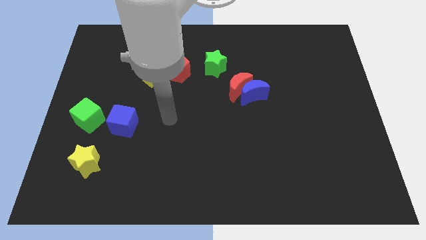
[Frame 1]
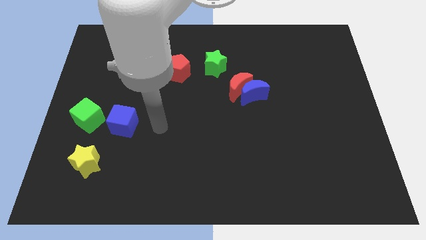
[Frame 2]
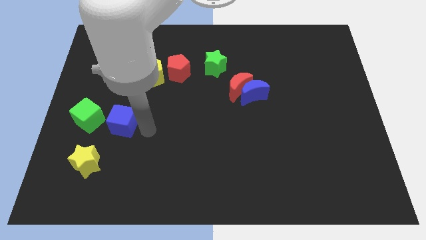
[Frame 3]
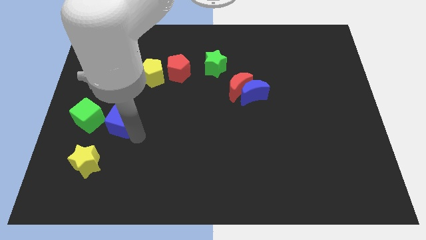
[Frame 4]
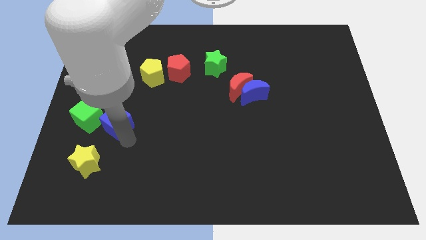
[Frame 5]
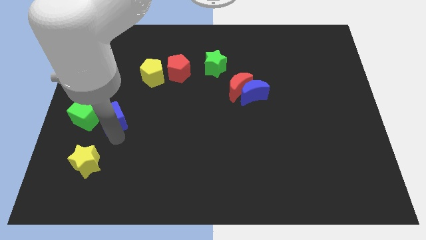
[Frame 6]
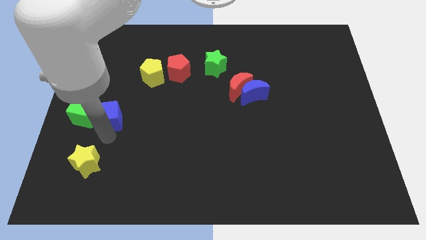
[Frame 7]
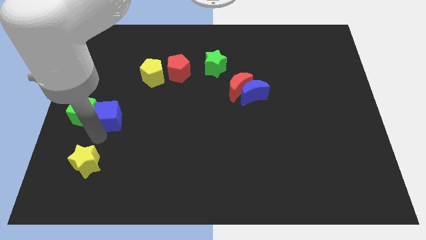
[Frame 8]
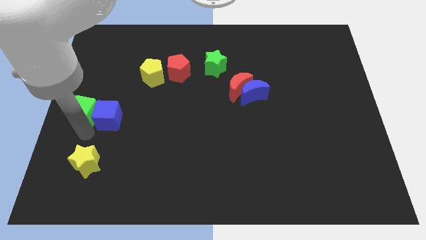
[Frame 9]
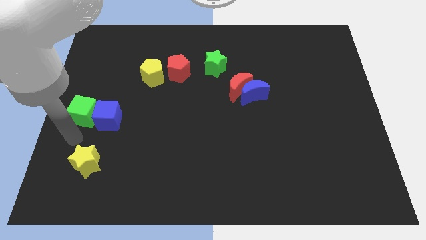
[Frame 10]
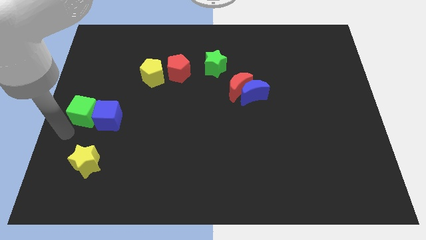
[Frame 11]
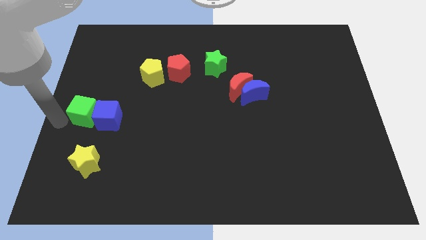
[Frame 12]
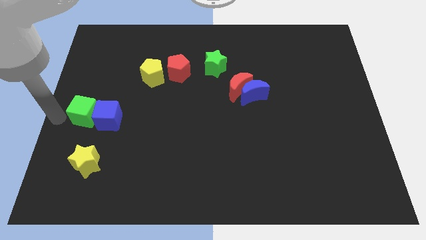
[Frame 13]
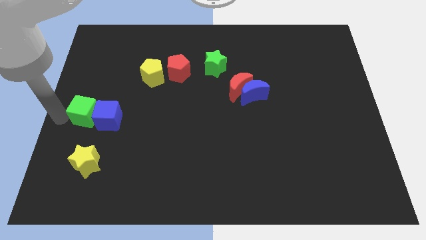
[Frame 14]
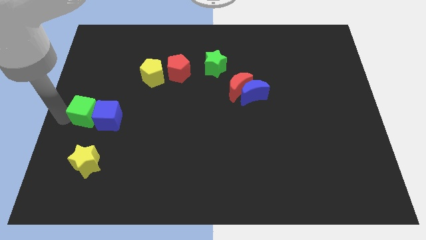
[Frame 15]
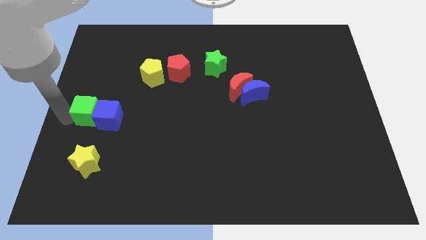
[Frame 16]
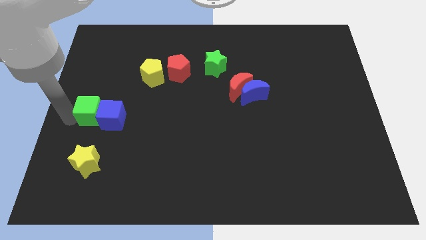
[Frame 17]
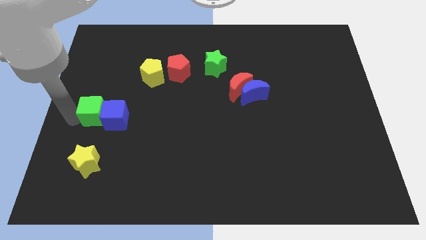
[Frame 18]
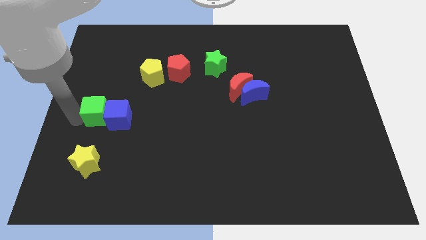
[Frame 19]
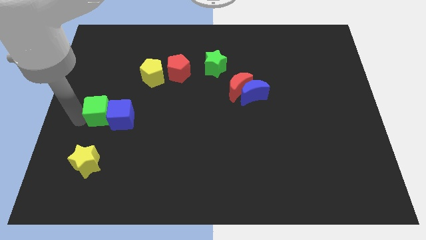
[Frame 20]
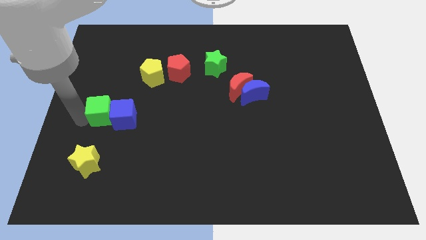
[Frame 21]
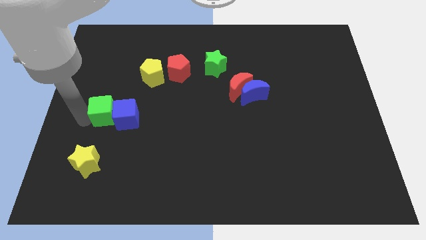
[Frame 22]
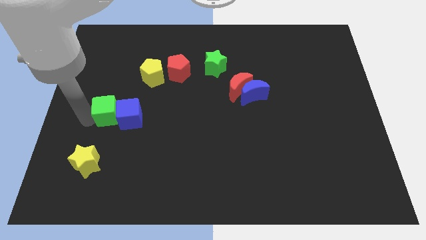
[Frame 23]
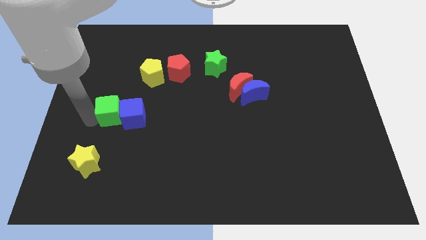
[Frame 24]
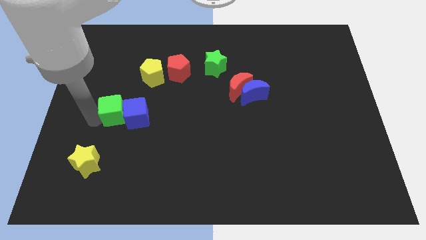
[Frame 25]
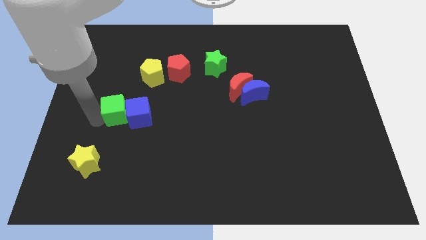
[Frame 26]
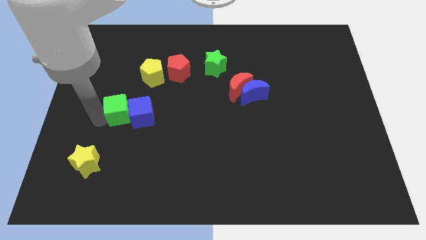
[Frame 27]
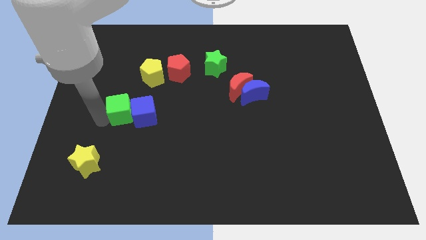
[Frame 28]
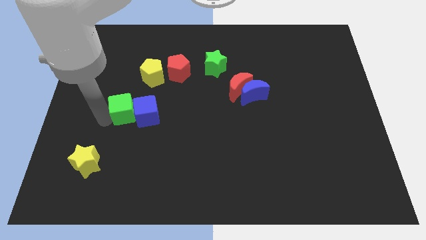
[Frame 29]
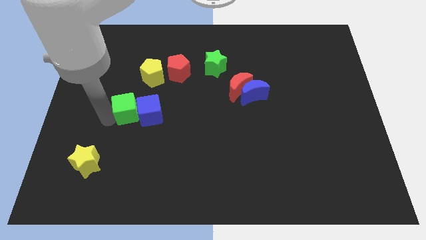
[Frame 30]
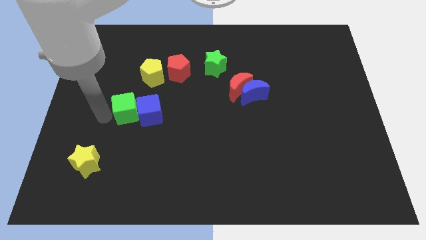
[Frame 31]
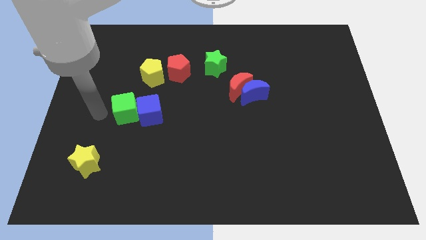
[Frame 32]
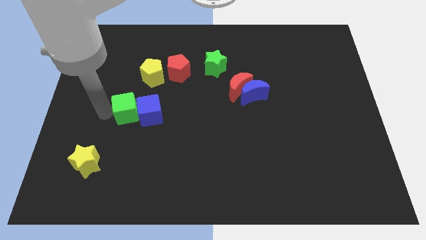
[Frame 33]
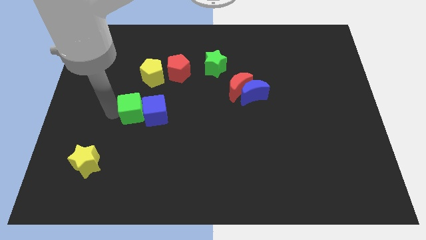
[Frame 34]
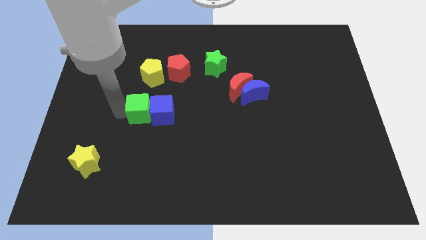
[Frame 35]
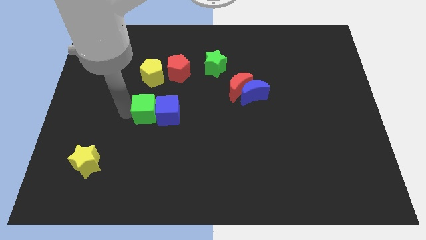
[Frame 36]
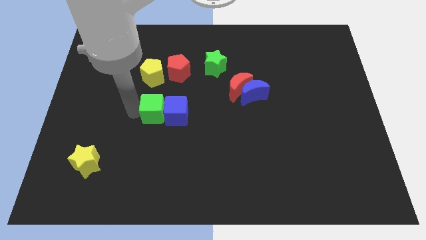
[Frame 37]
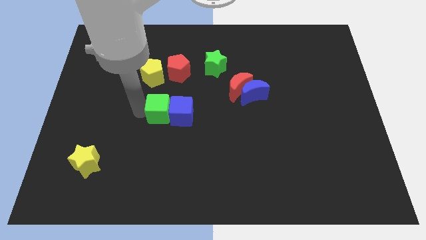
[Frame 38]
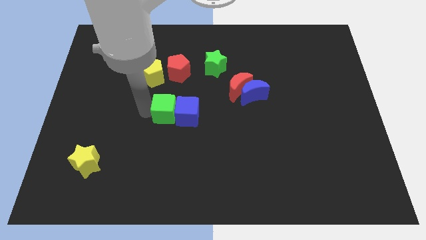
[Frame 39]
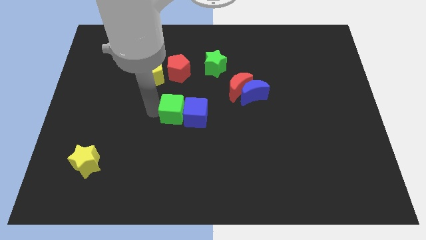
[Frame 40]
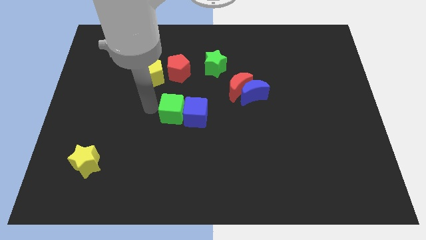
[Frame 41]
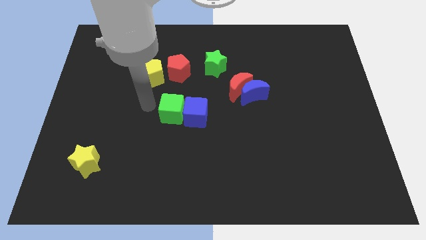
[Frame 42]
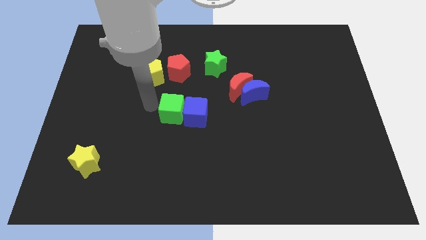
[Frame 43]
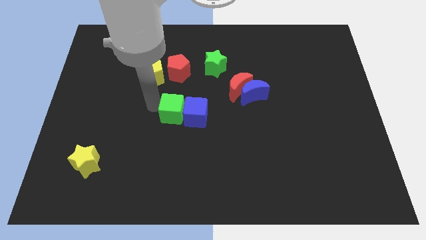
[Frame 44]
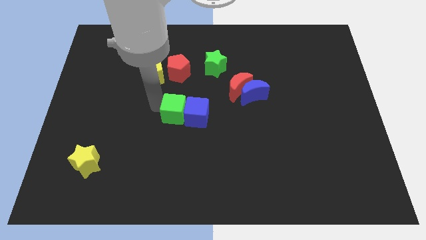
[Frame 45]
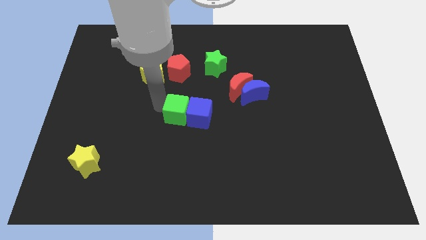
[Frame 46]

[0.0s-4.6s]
slide the green cube to the right

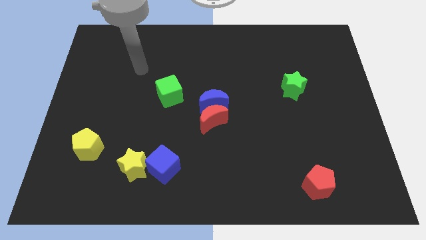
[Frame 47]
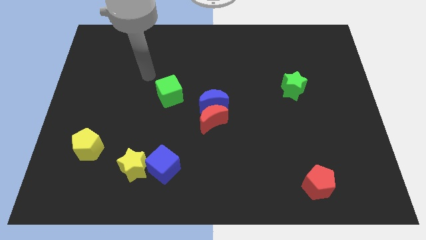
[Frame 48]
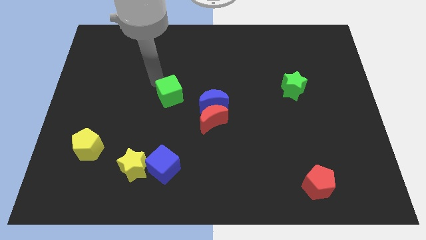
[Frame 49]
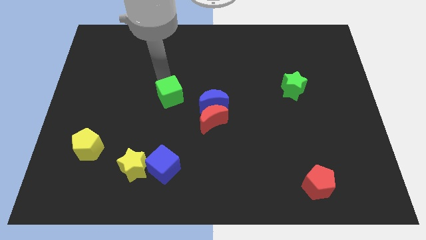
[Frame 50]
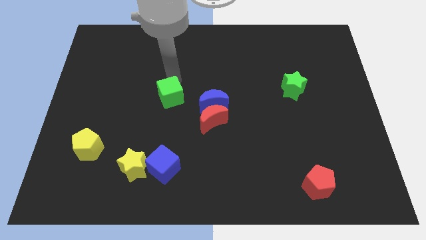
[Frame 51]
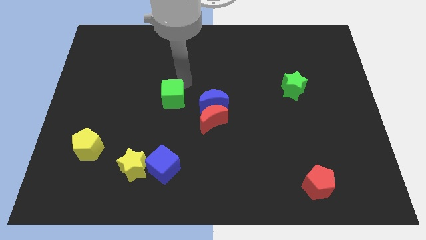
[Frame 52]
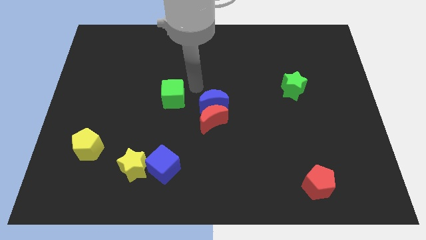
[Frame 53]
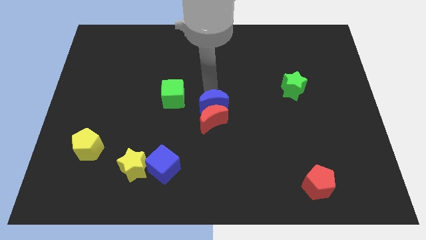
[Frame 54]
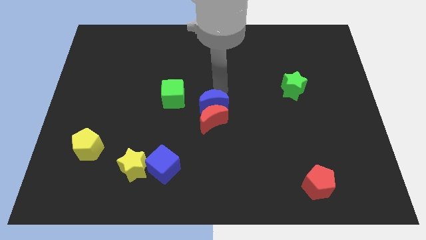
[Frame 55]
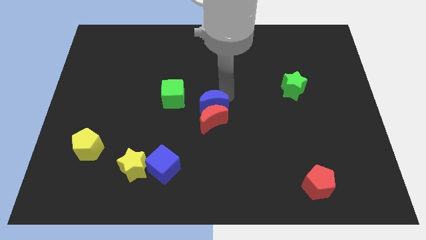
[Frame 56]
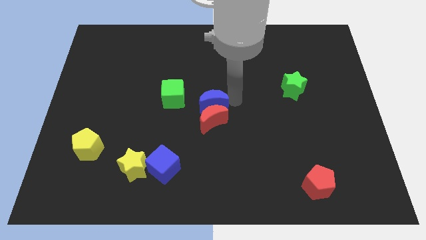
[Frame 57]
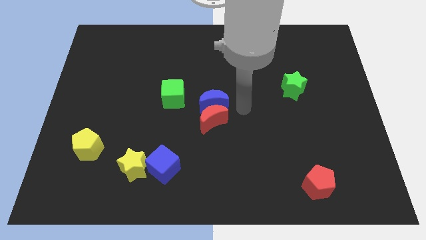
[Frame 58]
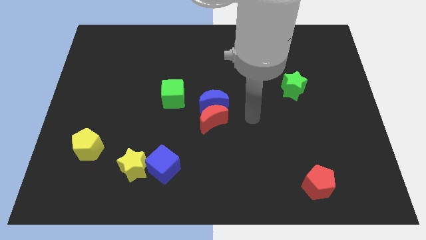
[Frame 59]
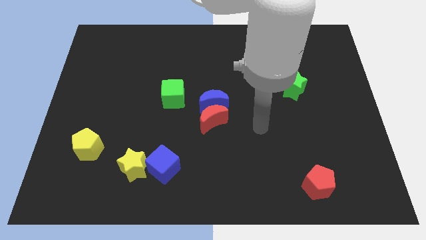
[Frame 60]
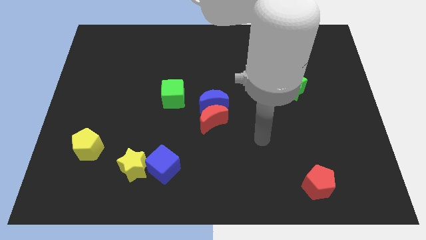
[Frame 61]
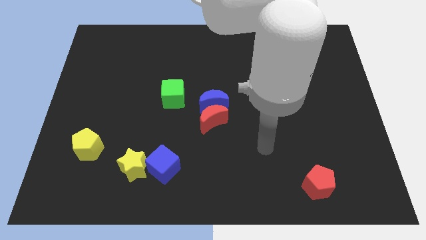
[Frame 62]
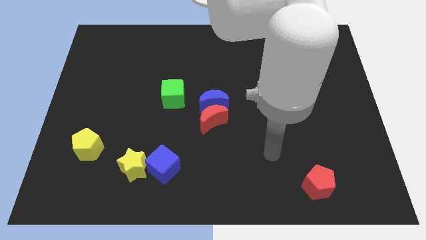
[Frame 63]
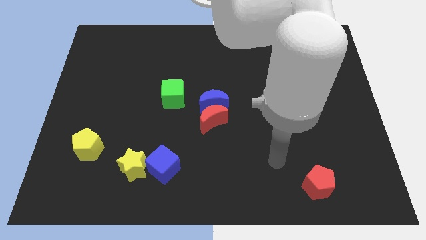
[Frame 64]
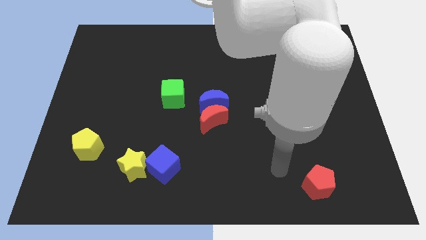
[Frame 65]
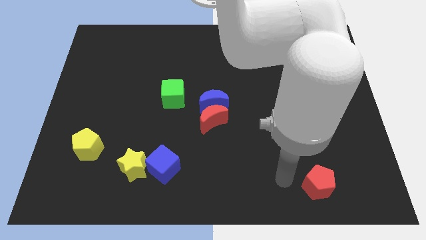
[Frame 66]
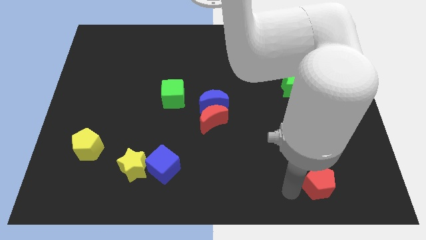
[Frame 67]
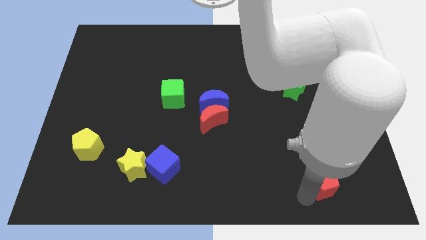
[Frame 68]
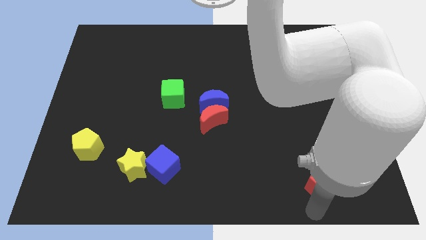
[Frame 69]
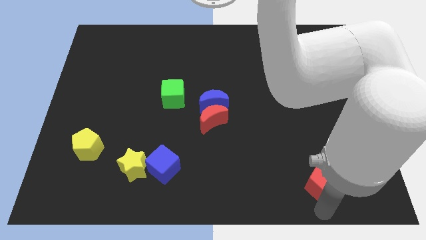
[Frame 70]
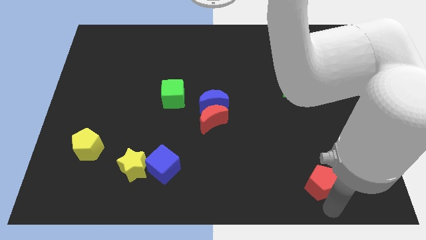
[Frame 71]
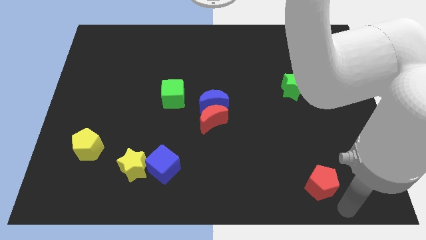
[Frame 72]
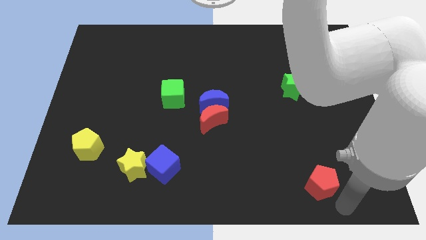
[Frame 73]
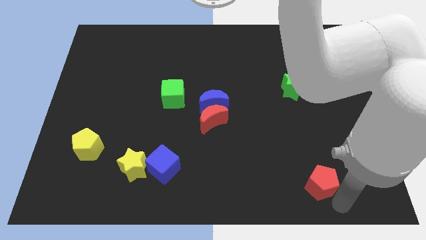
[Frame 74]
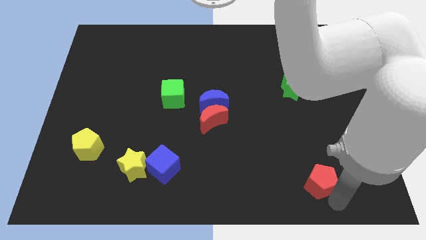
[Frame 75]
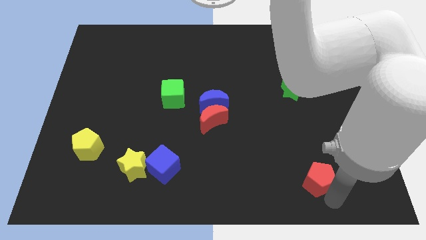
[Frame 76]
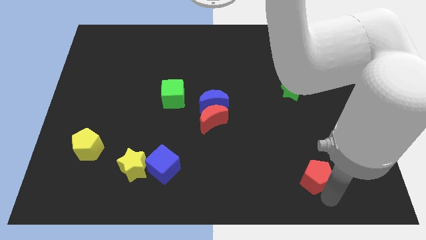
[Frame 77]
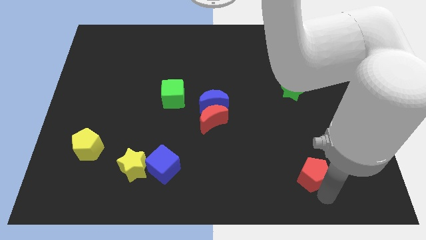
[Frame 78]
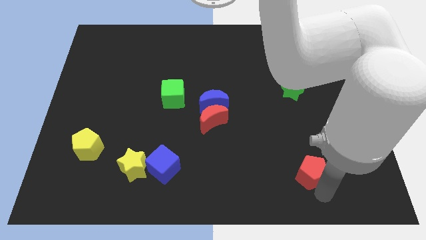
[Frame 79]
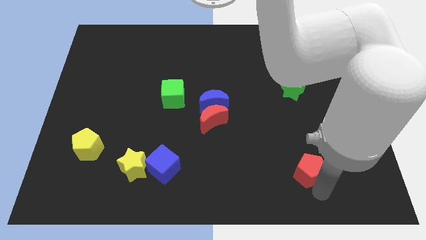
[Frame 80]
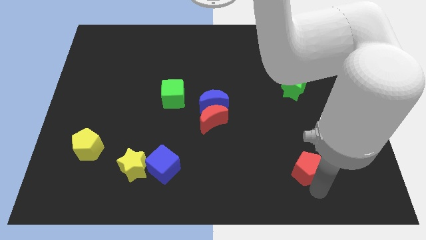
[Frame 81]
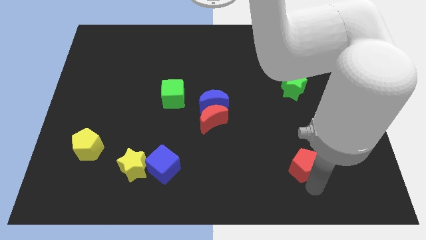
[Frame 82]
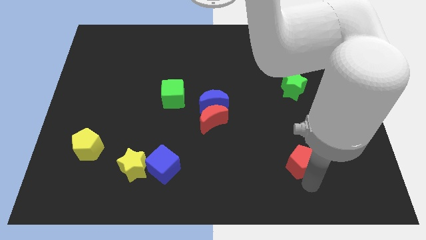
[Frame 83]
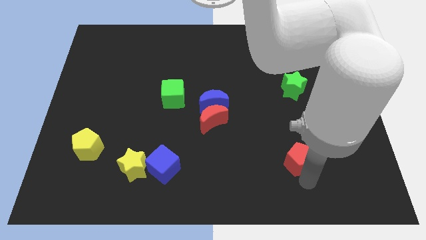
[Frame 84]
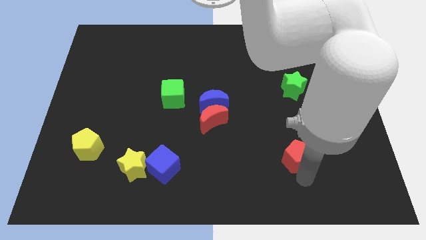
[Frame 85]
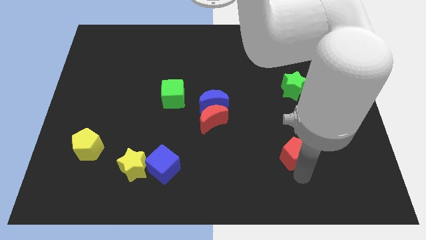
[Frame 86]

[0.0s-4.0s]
push the red pentagon a little up and to the left diagonally
